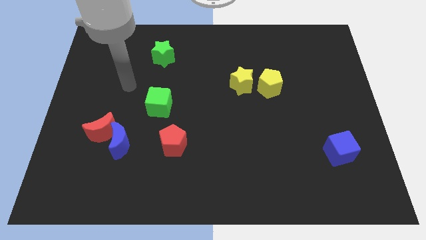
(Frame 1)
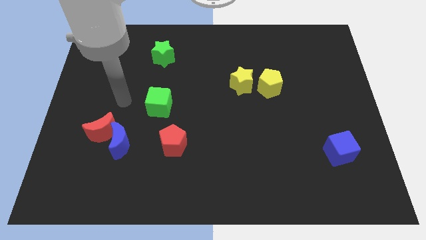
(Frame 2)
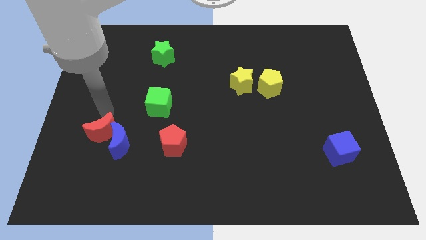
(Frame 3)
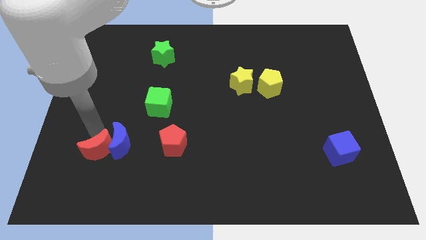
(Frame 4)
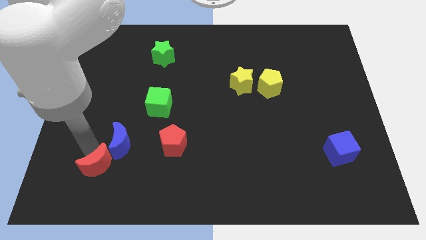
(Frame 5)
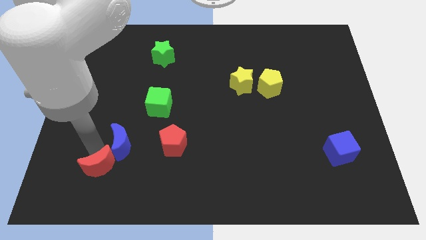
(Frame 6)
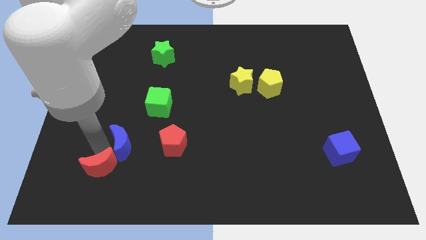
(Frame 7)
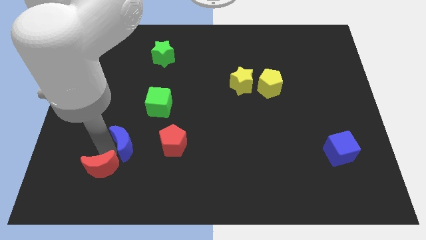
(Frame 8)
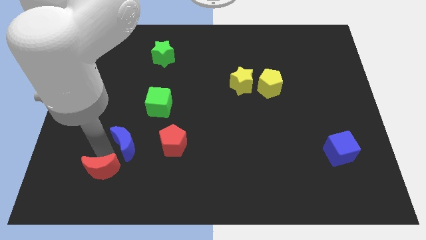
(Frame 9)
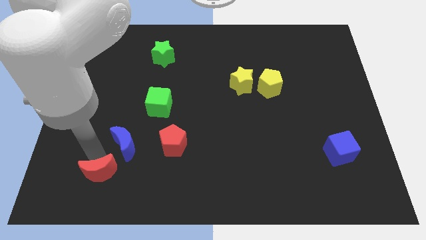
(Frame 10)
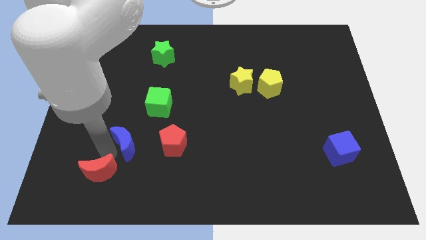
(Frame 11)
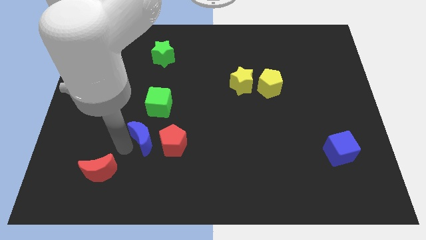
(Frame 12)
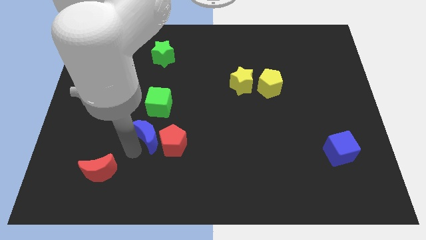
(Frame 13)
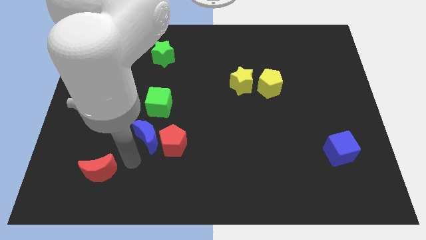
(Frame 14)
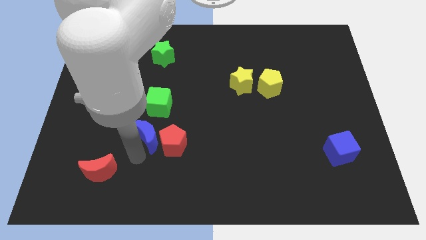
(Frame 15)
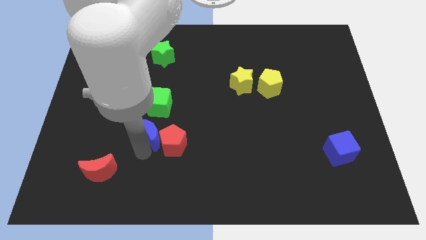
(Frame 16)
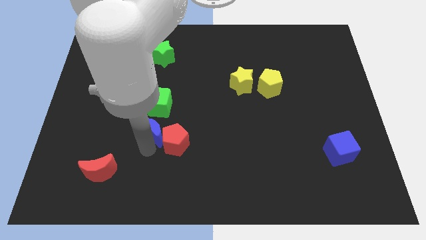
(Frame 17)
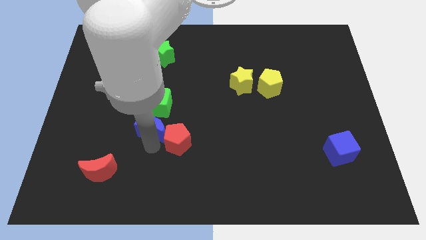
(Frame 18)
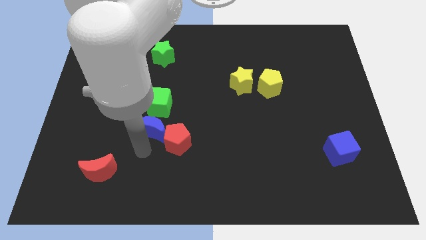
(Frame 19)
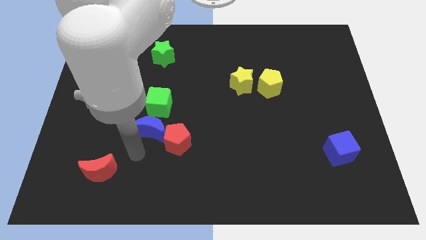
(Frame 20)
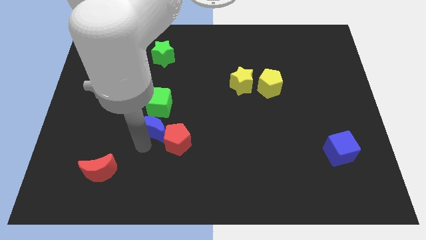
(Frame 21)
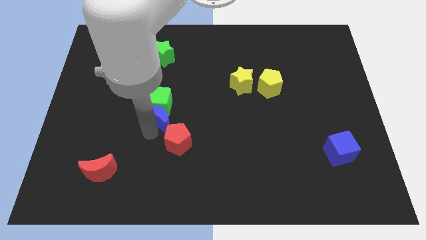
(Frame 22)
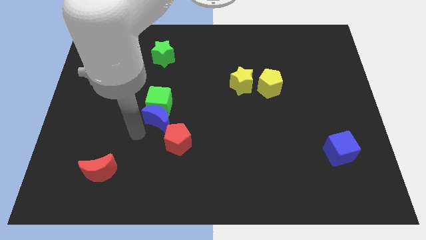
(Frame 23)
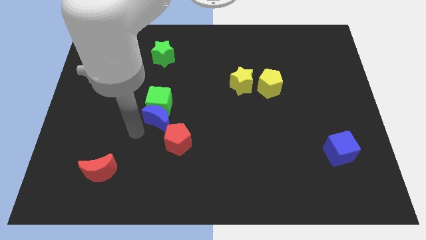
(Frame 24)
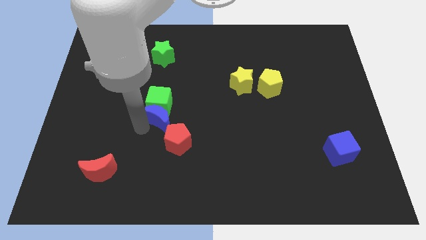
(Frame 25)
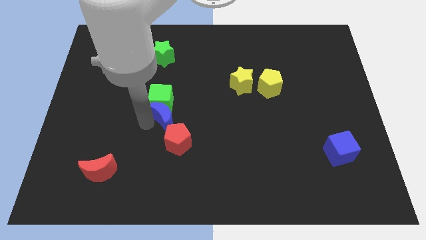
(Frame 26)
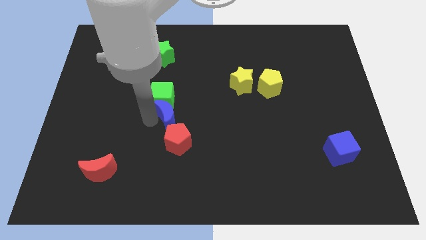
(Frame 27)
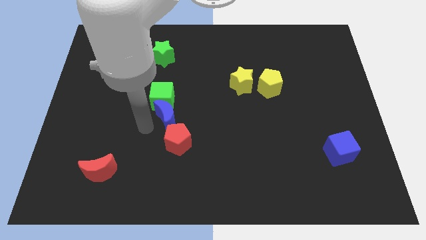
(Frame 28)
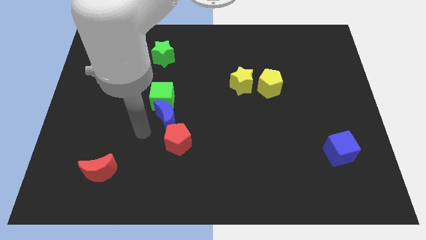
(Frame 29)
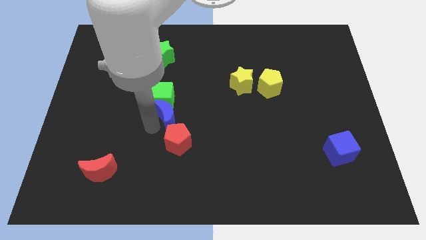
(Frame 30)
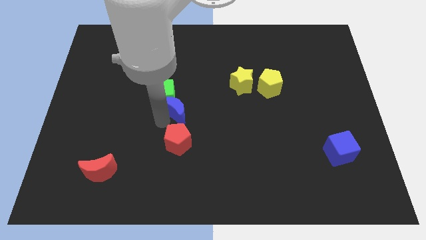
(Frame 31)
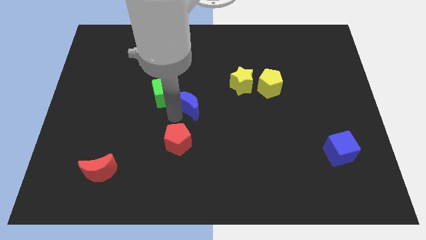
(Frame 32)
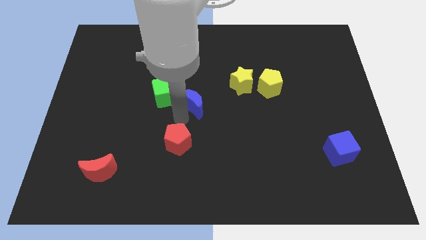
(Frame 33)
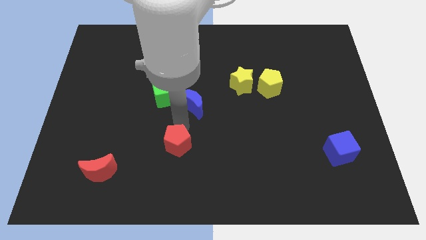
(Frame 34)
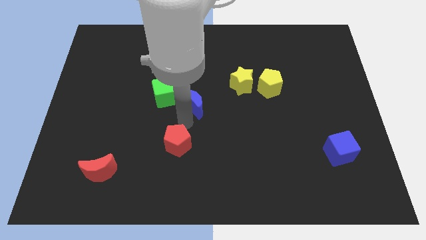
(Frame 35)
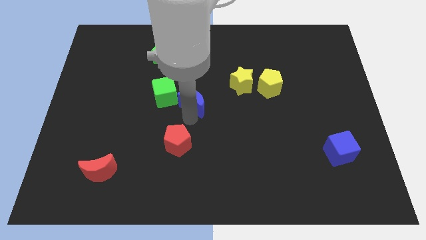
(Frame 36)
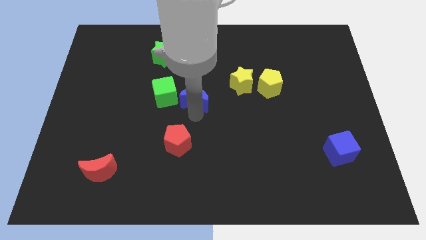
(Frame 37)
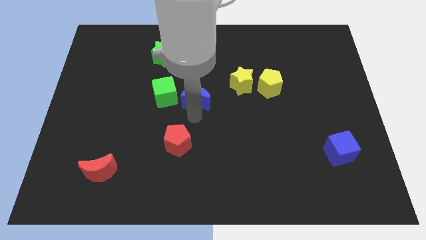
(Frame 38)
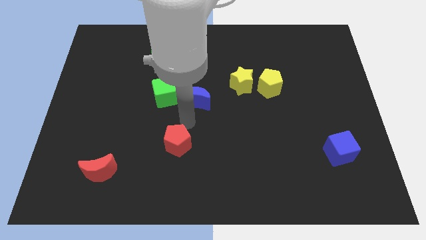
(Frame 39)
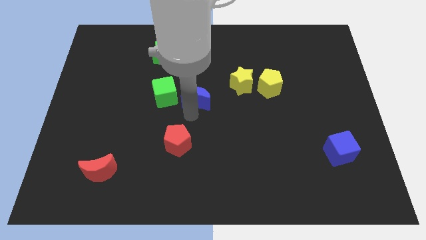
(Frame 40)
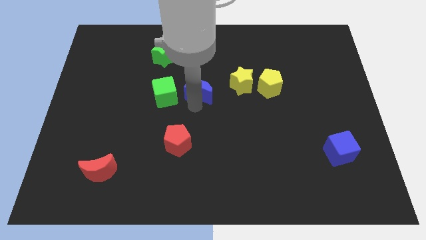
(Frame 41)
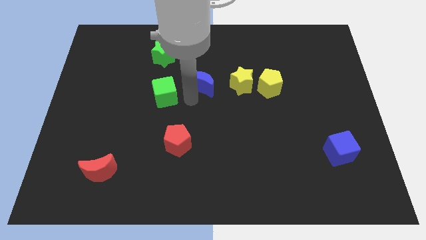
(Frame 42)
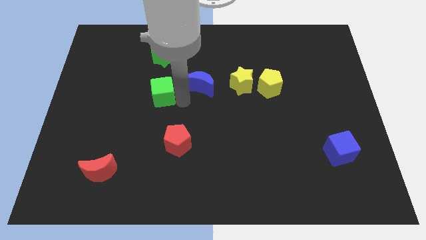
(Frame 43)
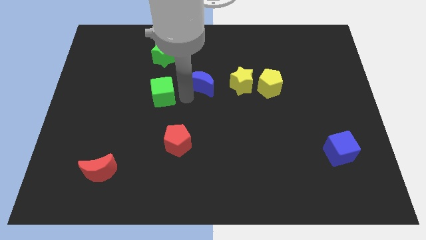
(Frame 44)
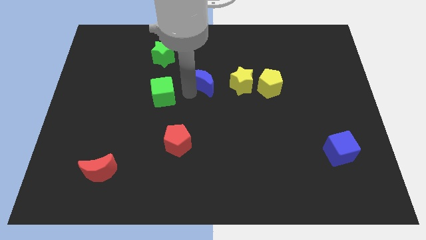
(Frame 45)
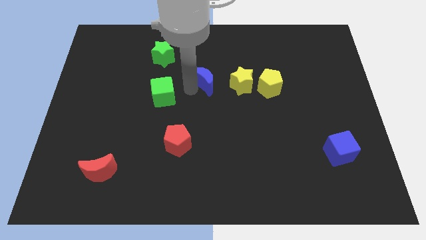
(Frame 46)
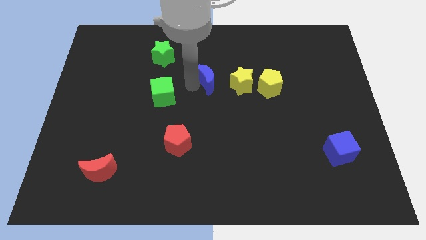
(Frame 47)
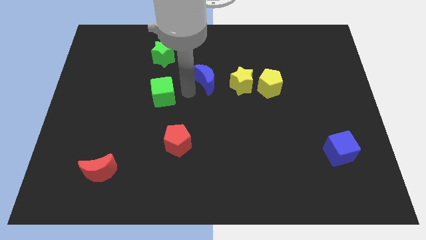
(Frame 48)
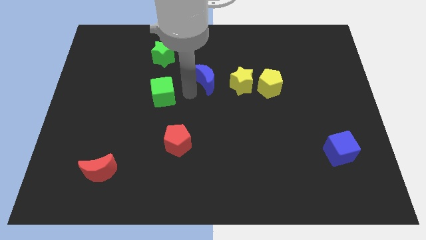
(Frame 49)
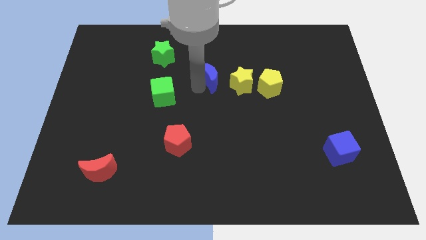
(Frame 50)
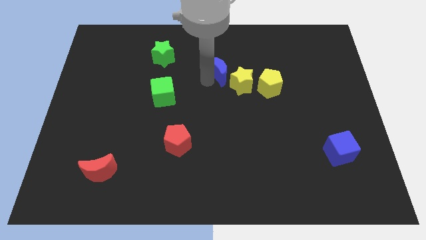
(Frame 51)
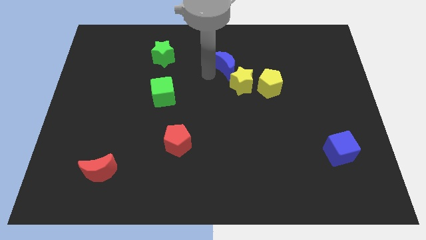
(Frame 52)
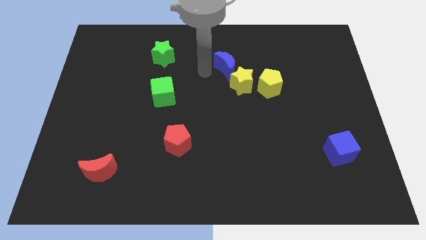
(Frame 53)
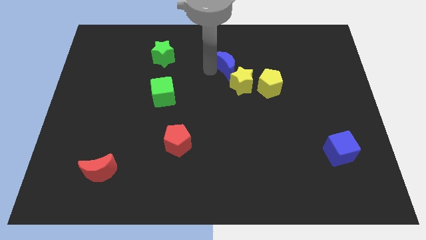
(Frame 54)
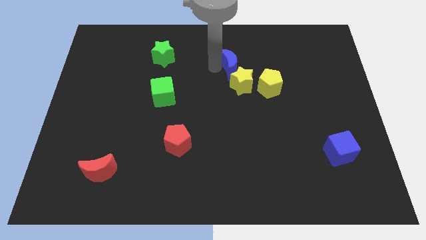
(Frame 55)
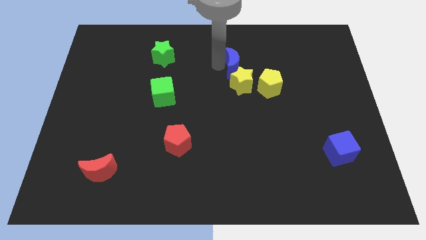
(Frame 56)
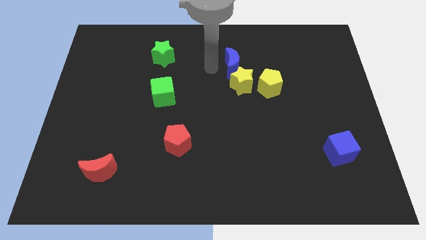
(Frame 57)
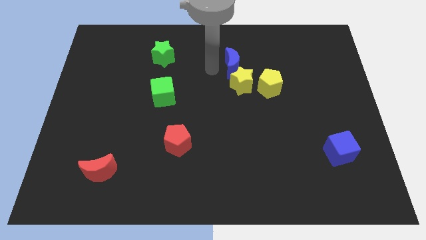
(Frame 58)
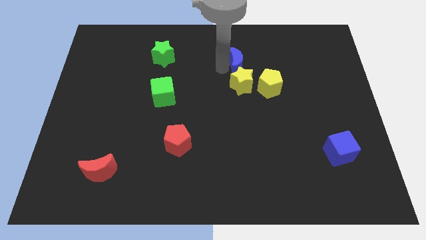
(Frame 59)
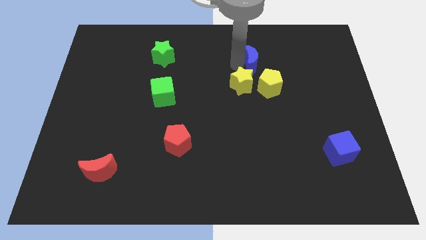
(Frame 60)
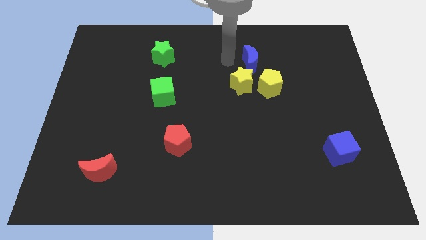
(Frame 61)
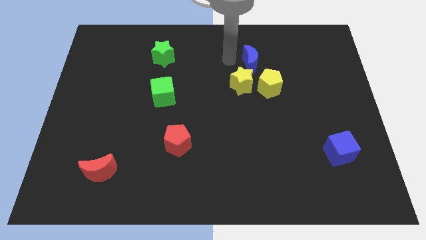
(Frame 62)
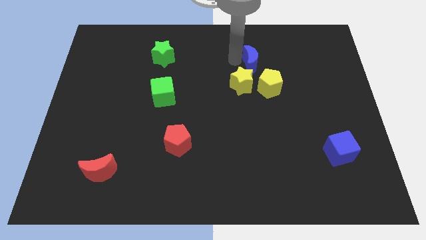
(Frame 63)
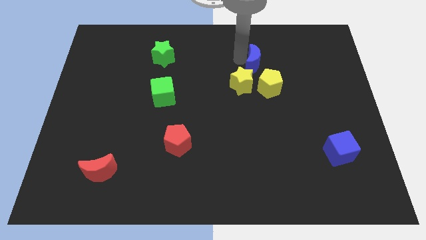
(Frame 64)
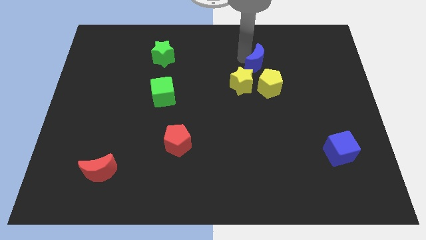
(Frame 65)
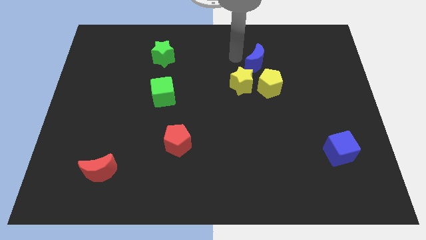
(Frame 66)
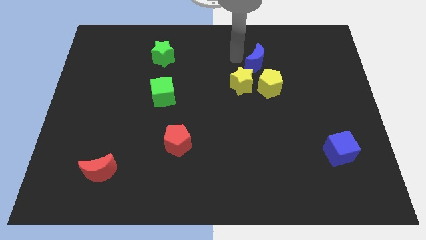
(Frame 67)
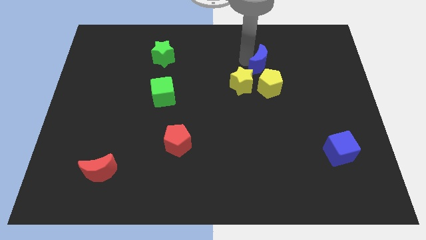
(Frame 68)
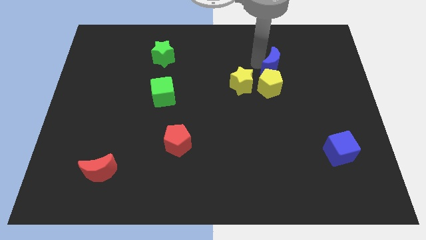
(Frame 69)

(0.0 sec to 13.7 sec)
put the blue moon diagonally up and to the right of the yellow pentagon
